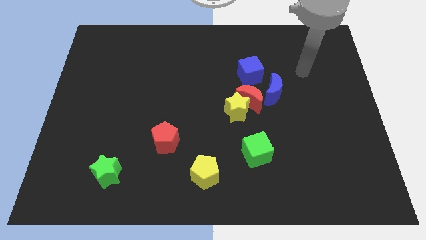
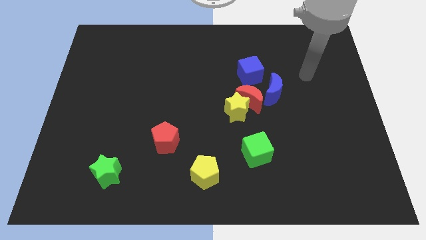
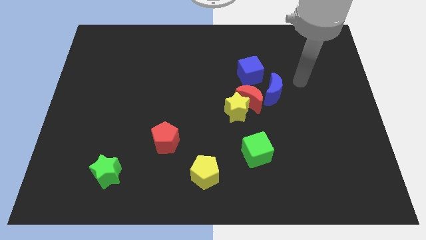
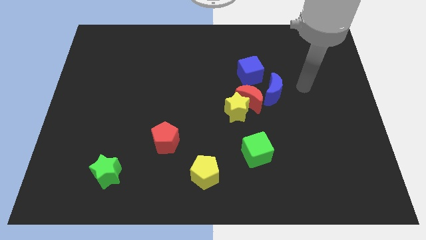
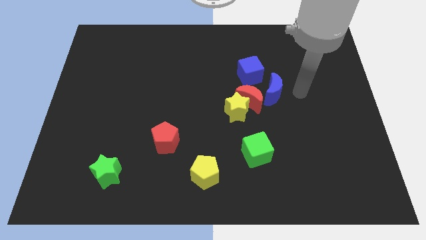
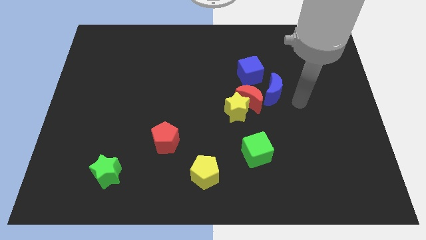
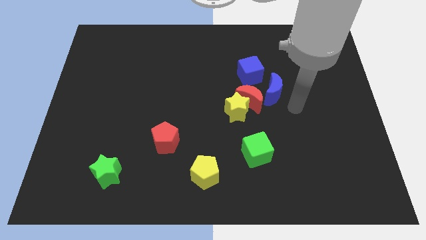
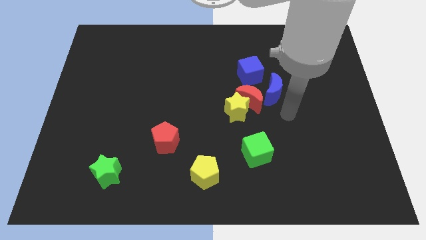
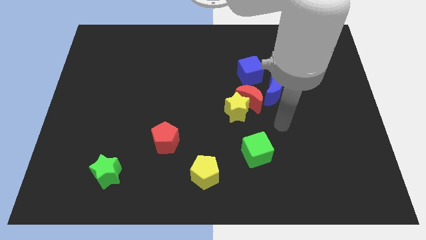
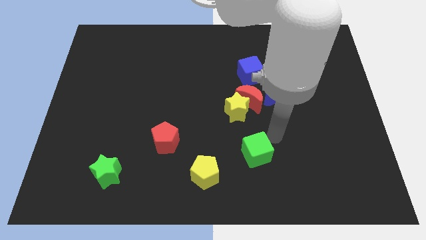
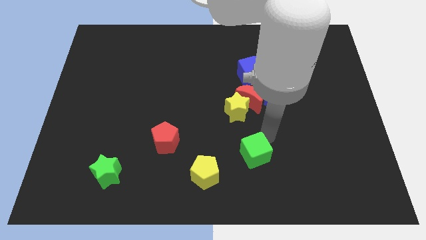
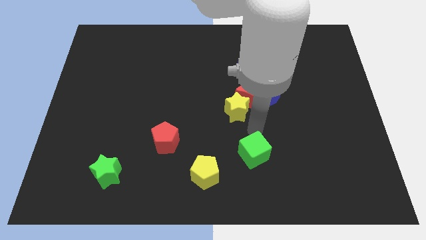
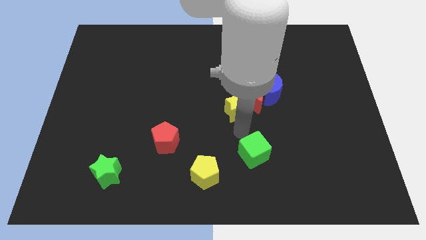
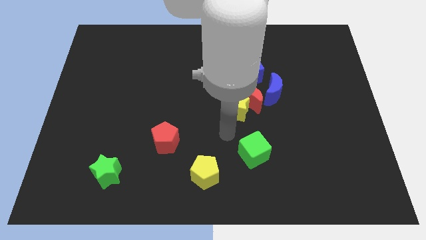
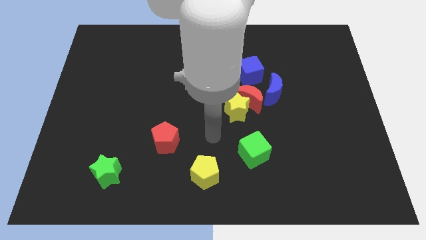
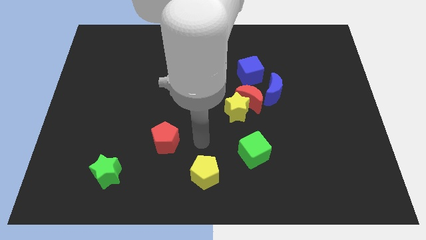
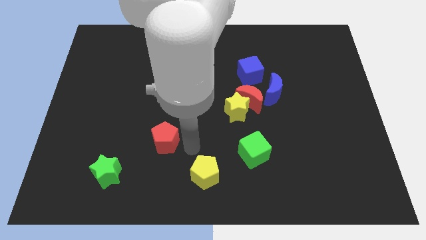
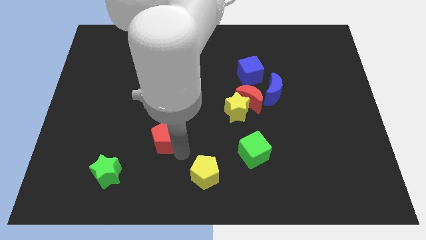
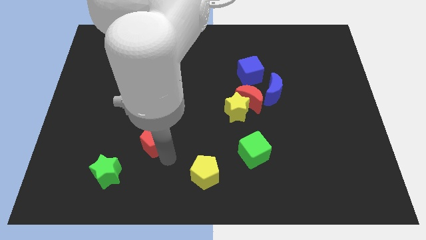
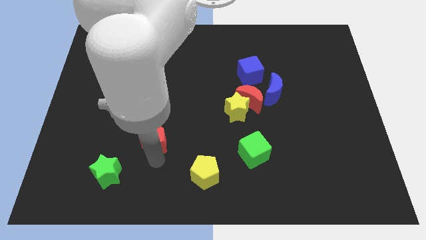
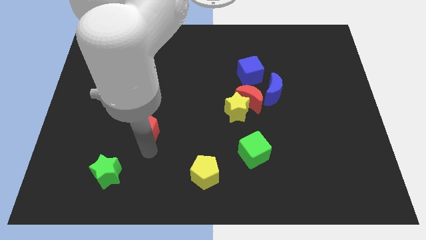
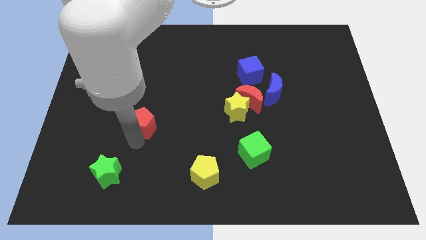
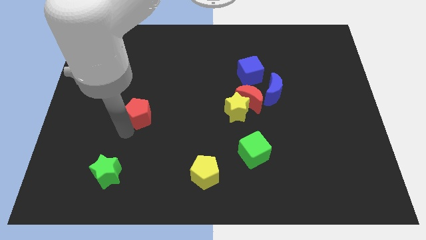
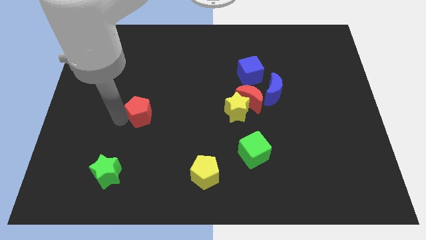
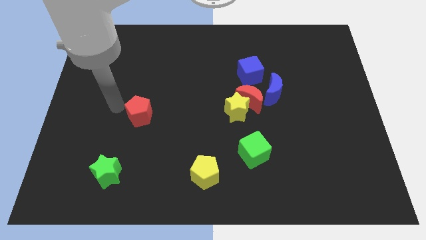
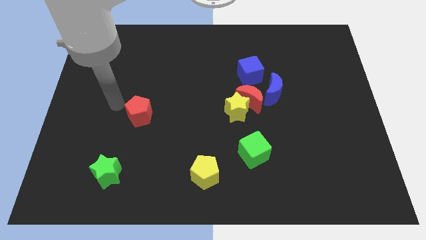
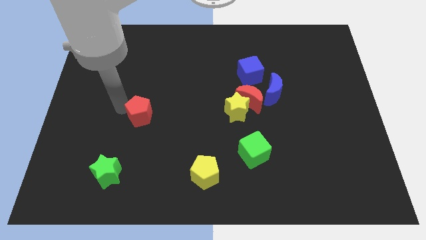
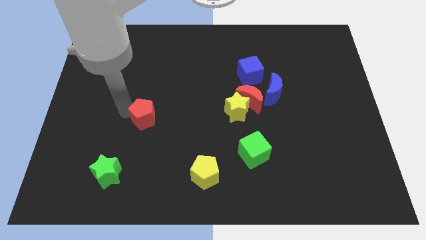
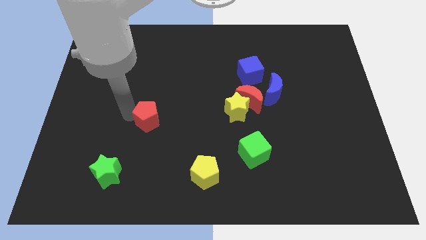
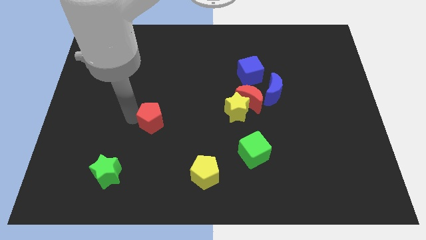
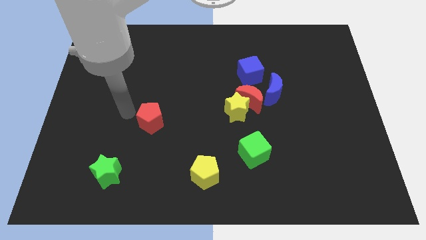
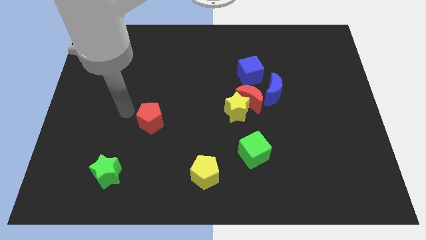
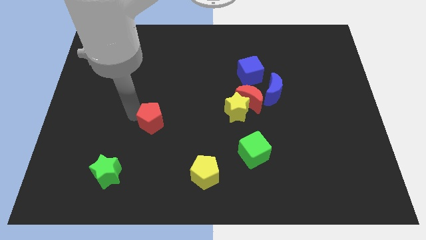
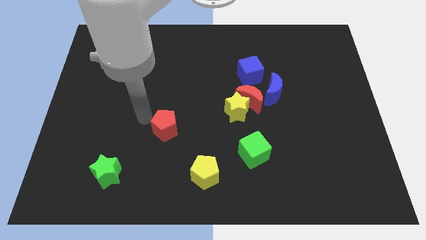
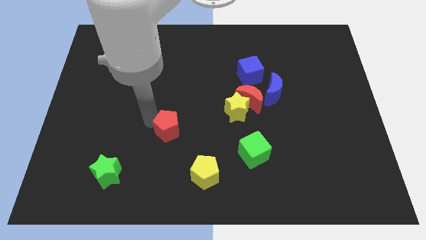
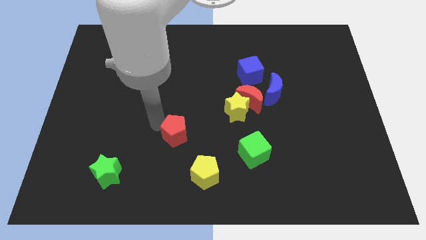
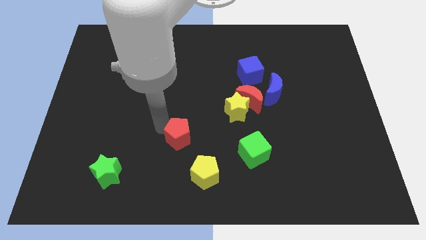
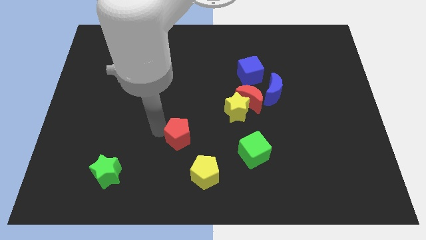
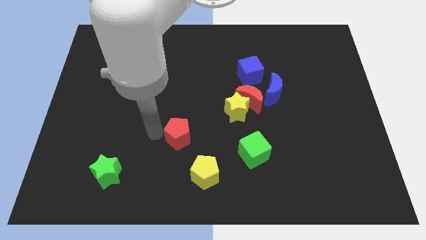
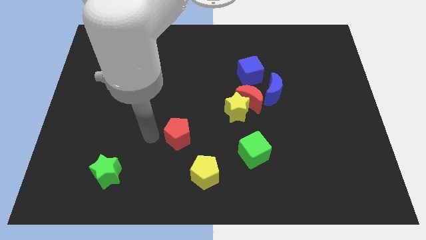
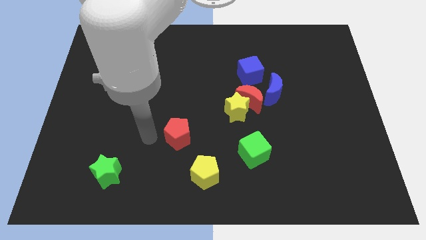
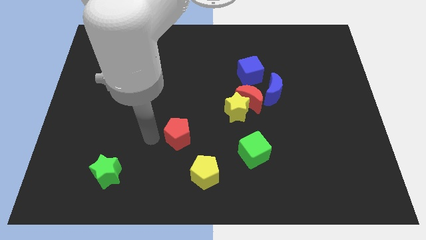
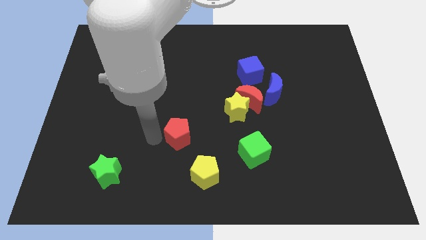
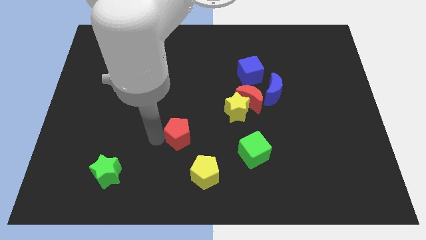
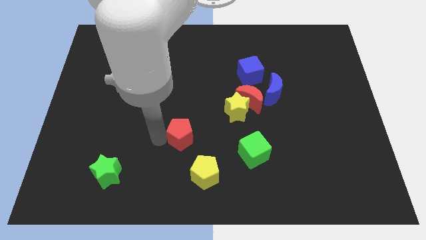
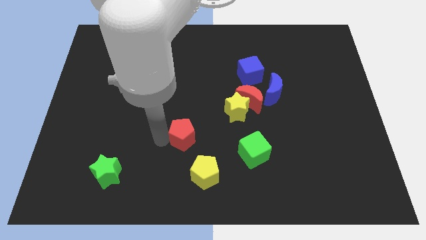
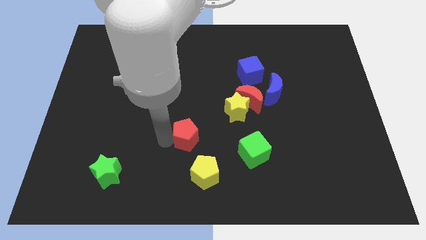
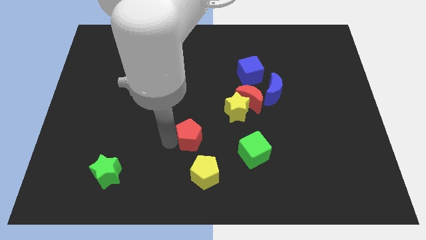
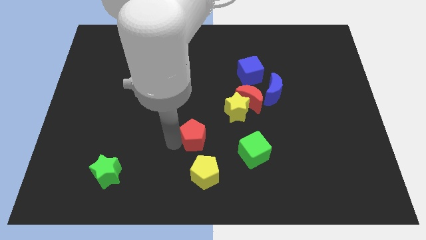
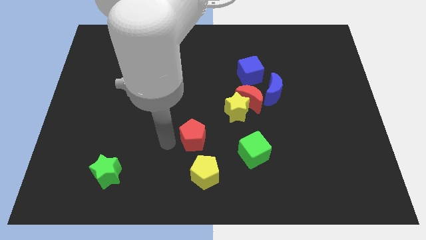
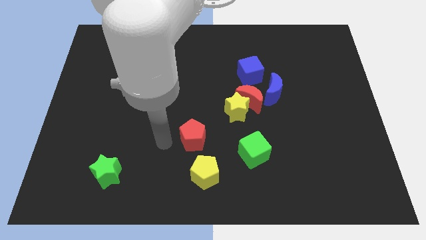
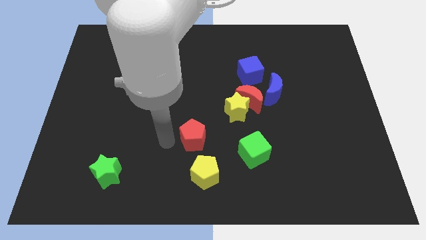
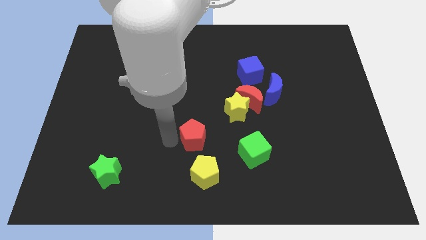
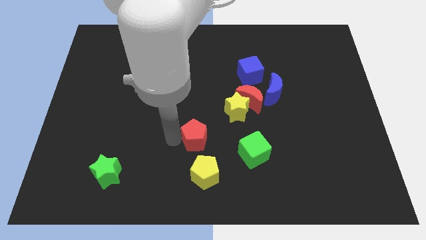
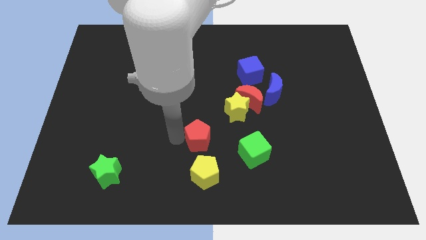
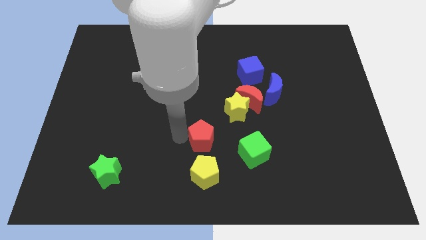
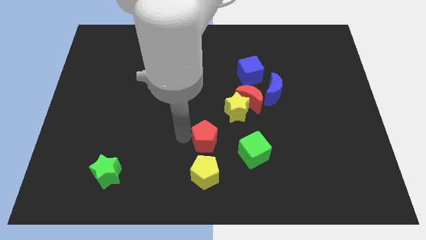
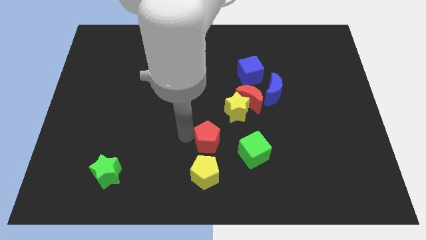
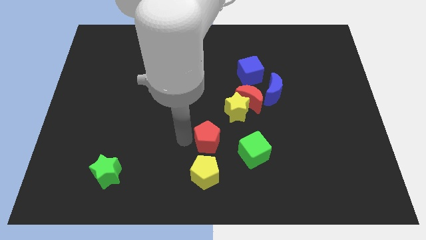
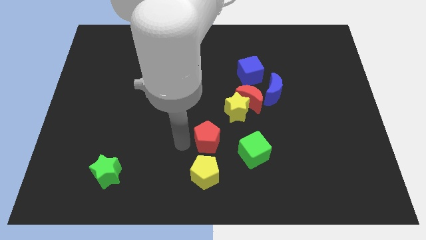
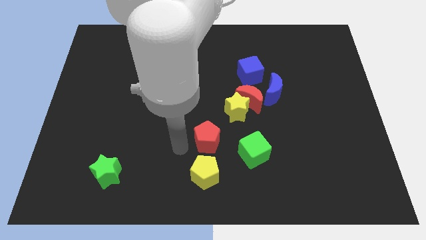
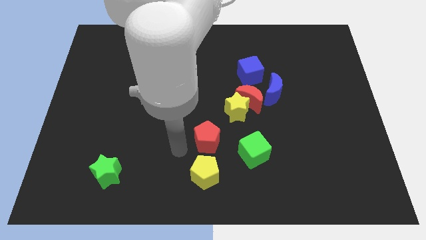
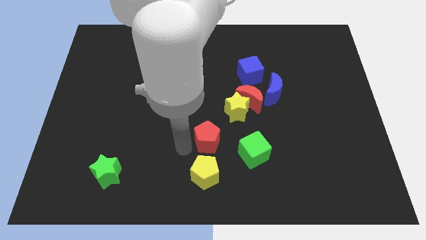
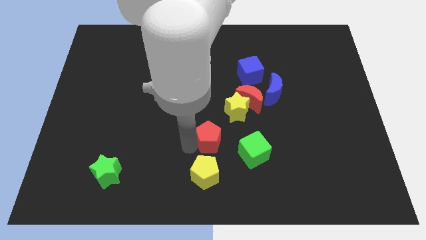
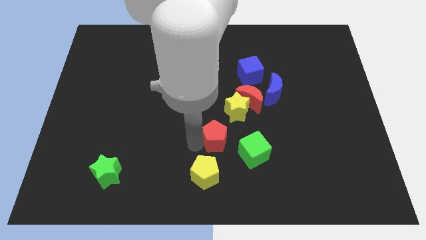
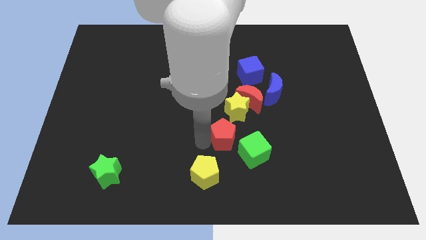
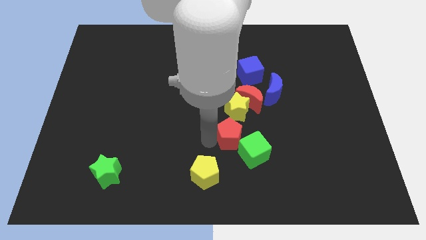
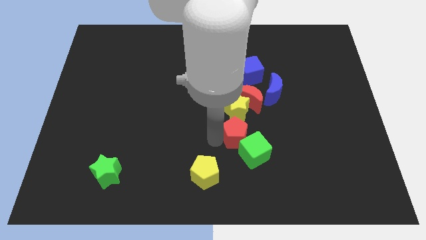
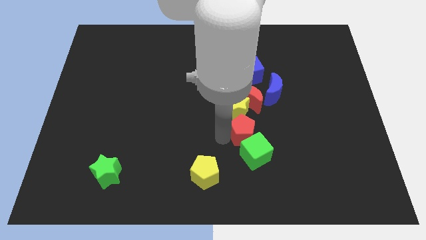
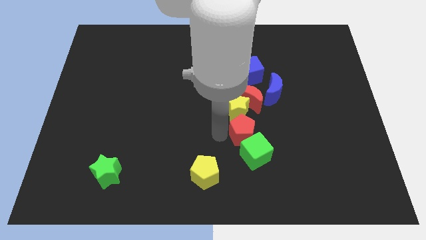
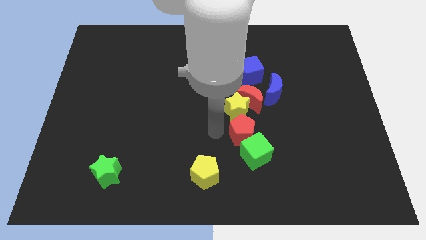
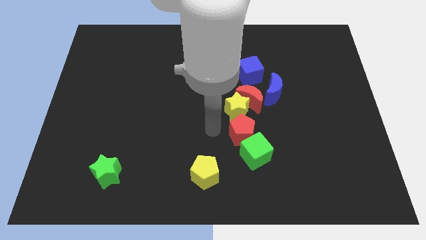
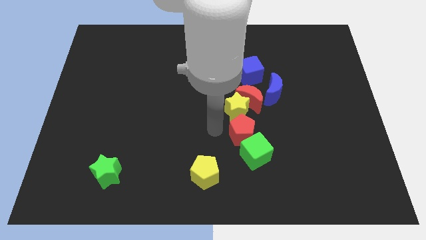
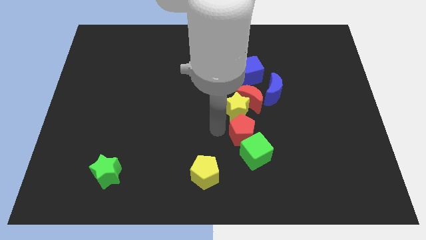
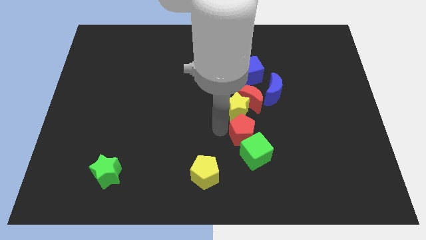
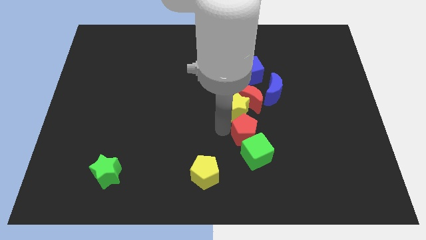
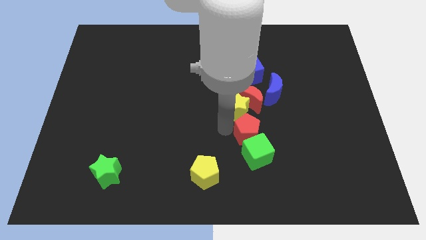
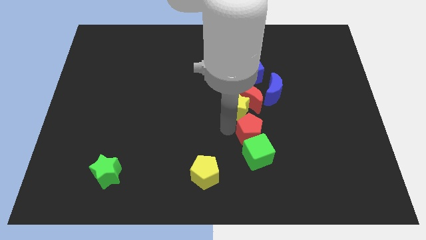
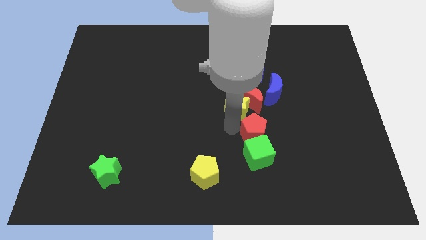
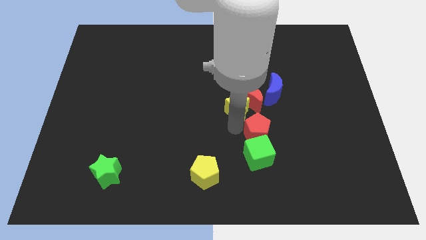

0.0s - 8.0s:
slide the red pentagon to the right
